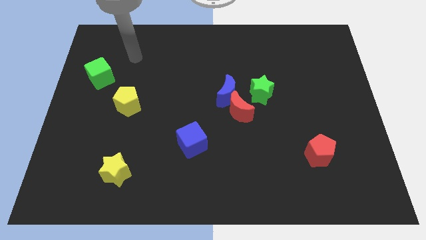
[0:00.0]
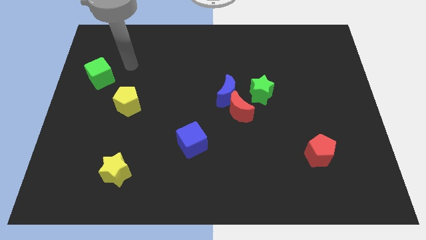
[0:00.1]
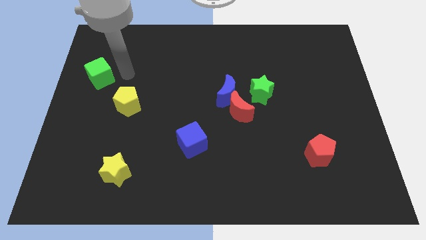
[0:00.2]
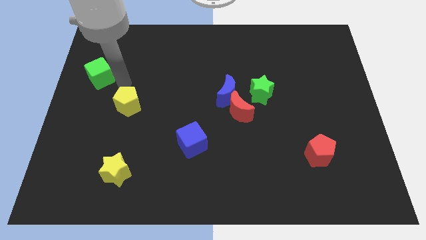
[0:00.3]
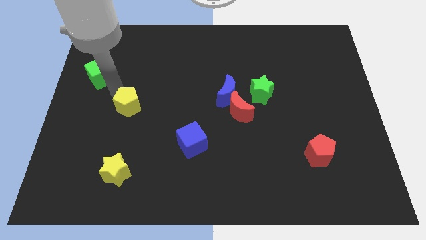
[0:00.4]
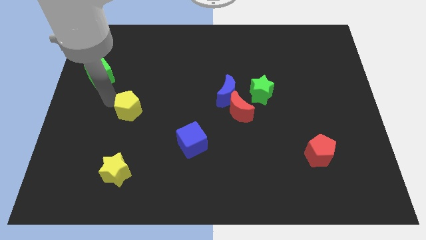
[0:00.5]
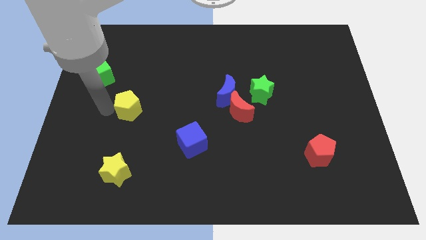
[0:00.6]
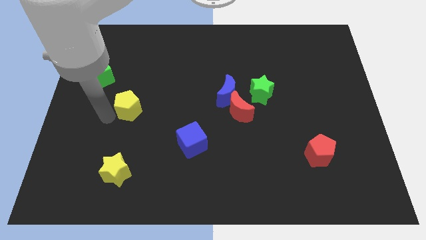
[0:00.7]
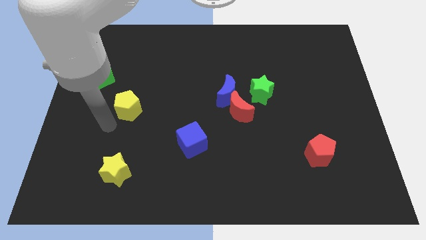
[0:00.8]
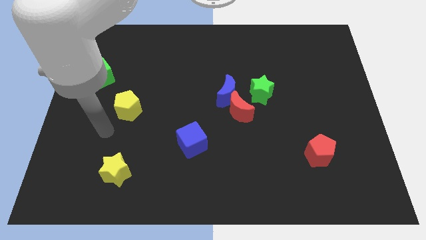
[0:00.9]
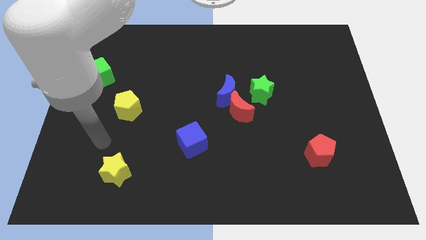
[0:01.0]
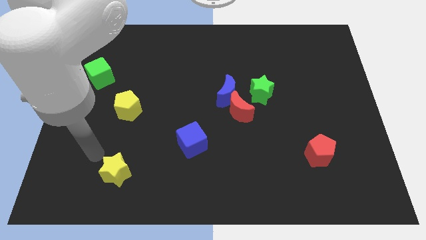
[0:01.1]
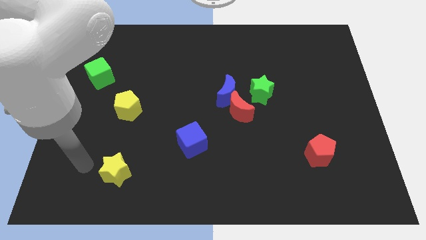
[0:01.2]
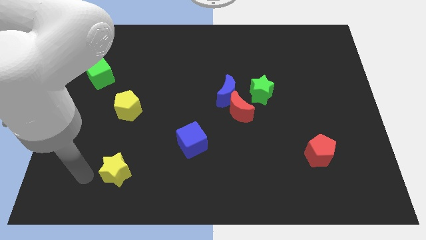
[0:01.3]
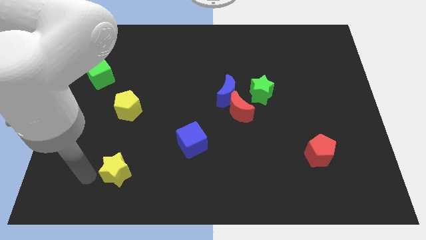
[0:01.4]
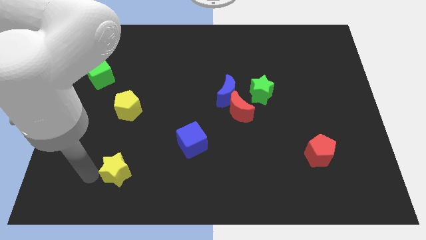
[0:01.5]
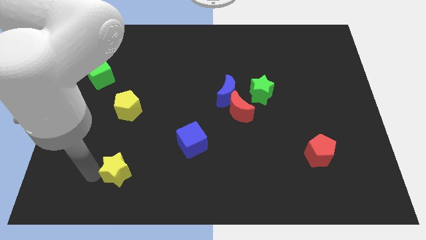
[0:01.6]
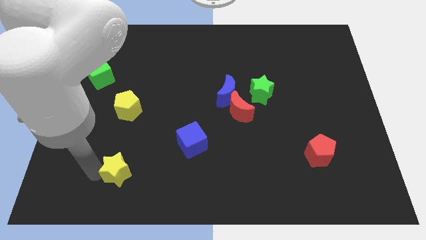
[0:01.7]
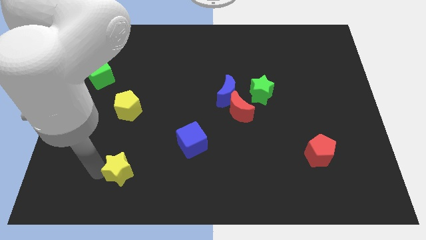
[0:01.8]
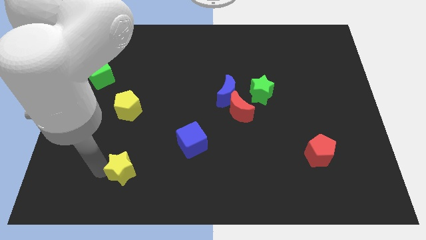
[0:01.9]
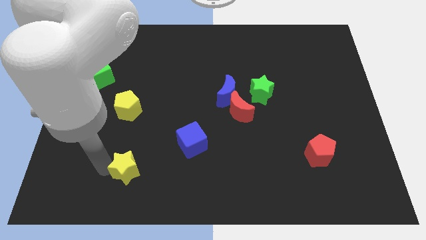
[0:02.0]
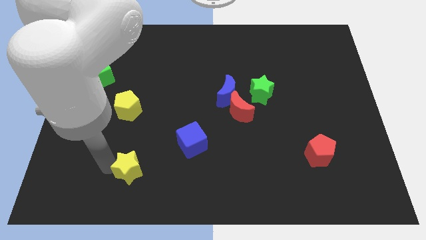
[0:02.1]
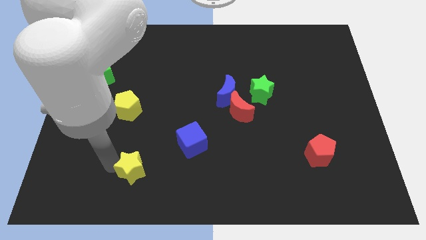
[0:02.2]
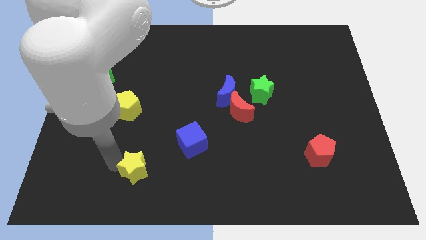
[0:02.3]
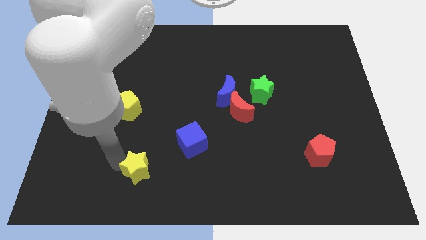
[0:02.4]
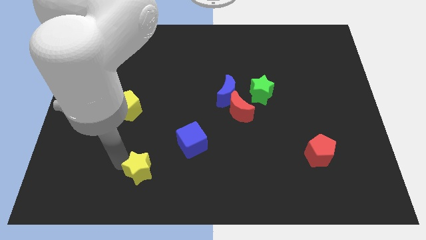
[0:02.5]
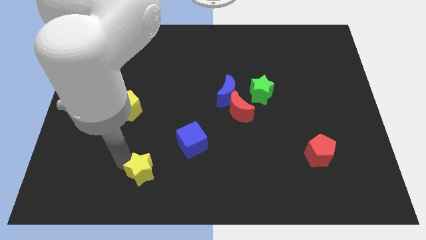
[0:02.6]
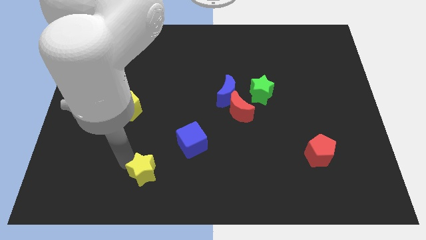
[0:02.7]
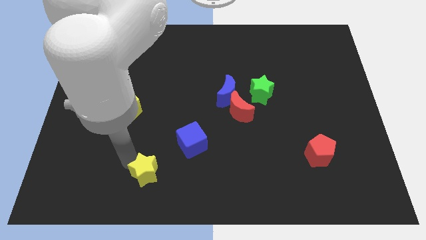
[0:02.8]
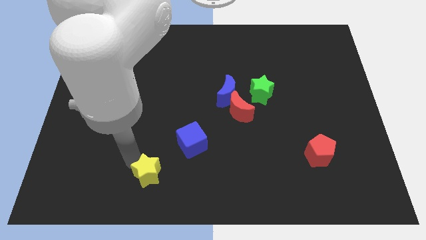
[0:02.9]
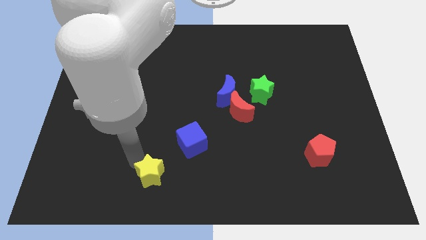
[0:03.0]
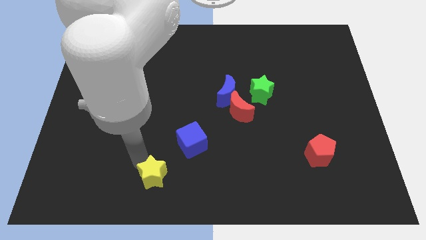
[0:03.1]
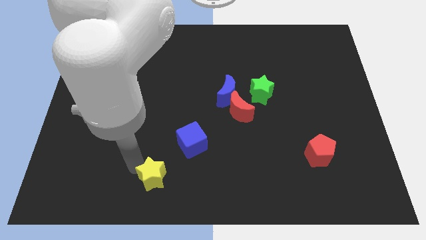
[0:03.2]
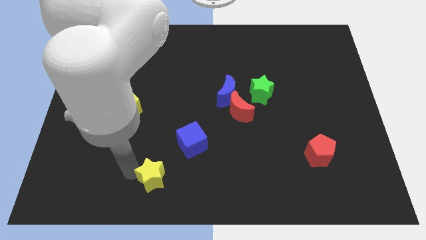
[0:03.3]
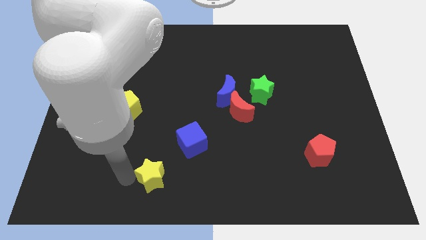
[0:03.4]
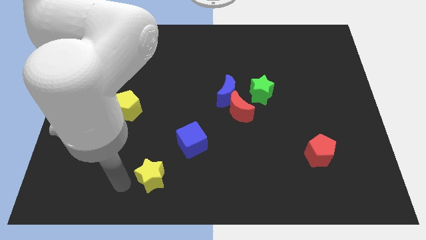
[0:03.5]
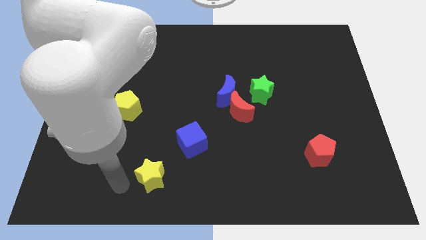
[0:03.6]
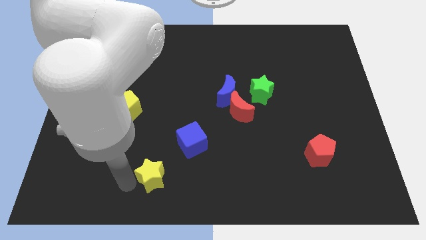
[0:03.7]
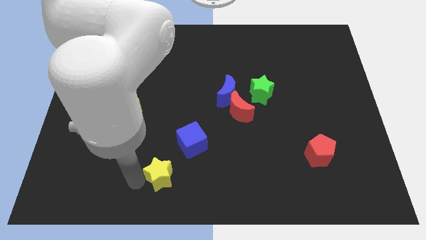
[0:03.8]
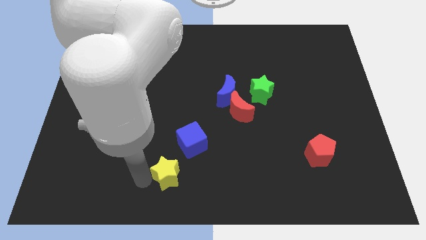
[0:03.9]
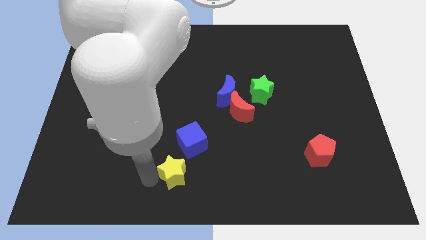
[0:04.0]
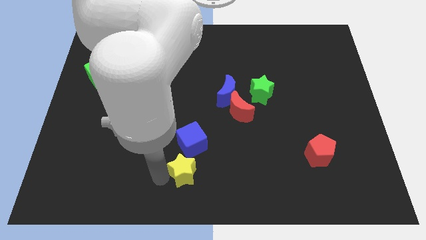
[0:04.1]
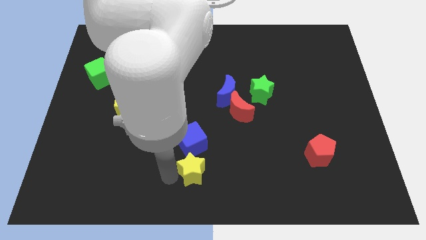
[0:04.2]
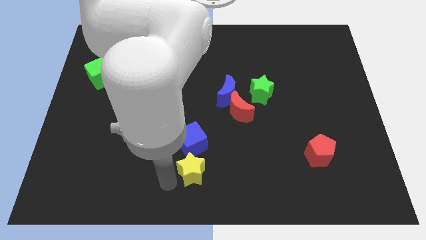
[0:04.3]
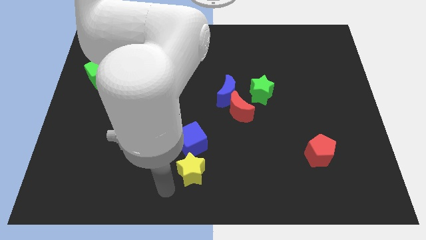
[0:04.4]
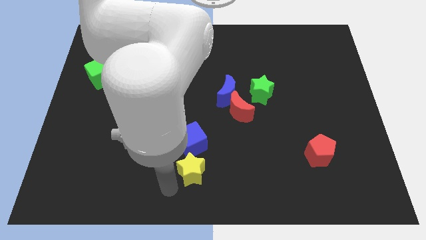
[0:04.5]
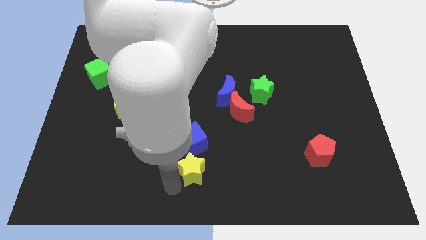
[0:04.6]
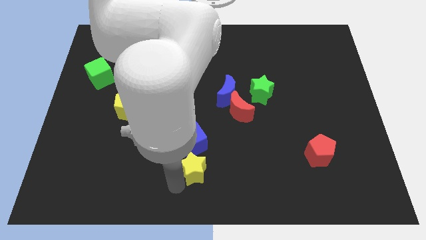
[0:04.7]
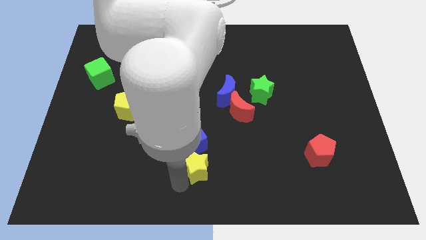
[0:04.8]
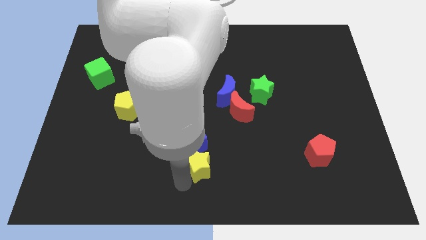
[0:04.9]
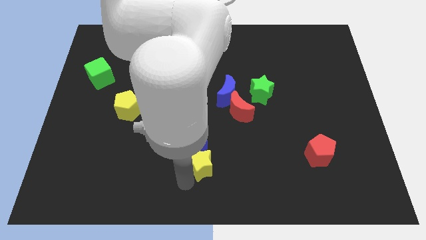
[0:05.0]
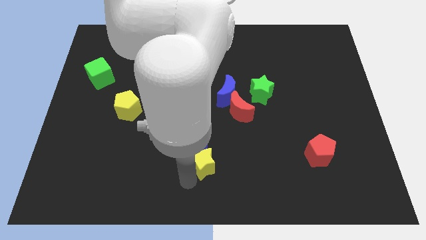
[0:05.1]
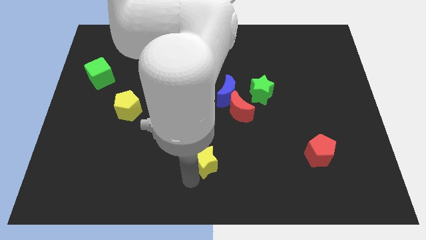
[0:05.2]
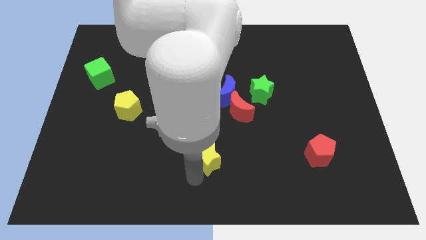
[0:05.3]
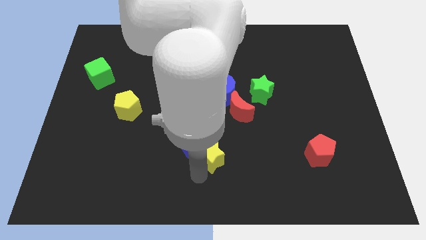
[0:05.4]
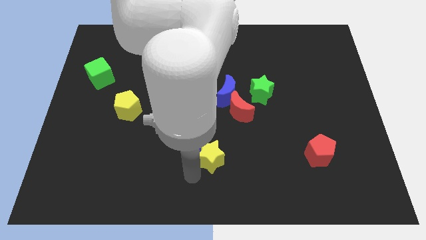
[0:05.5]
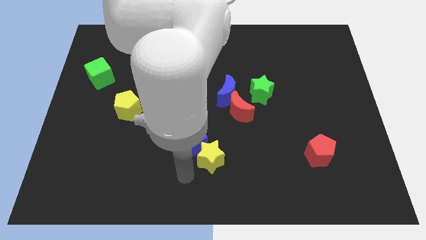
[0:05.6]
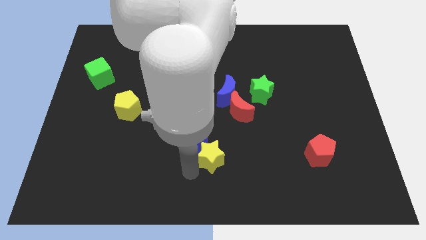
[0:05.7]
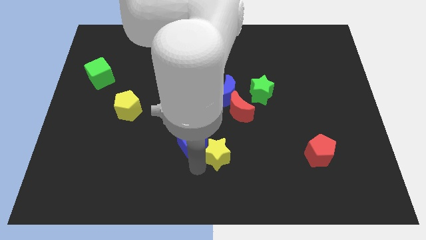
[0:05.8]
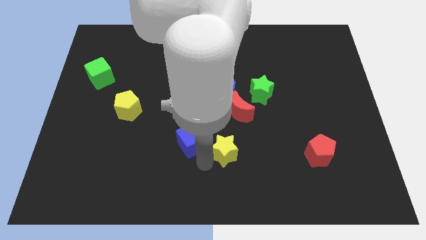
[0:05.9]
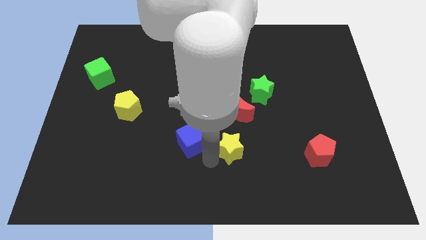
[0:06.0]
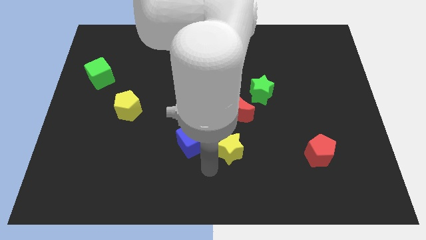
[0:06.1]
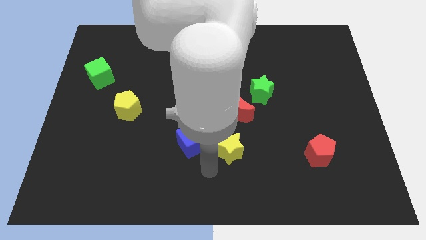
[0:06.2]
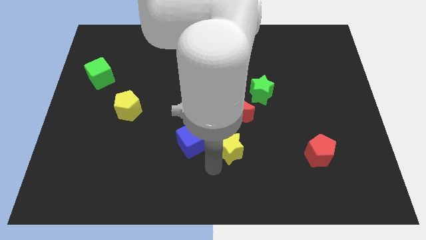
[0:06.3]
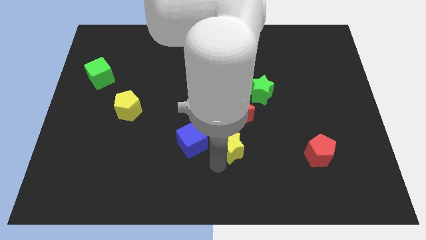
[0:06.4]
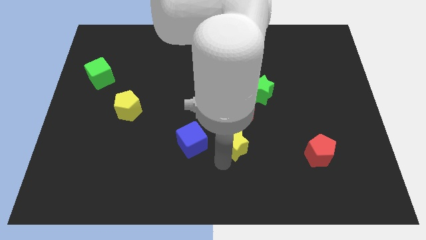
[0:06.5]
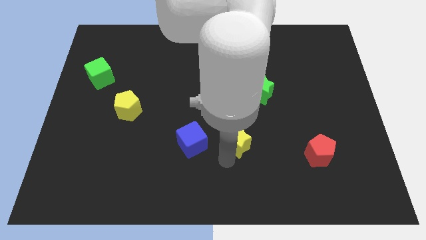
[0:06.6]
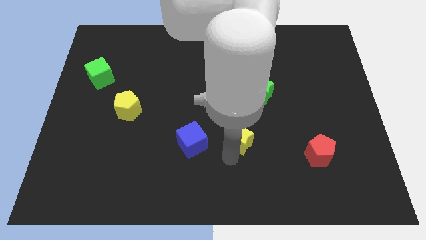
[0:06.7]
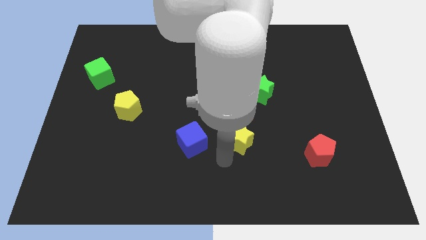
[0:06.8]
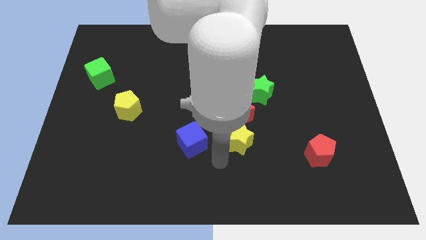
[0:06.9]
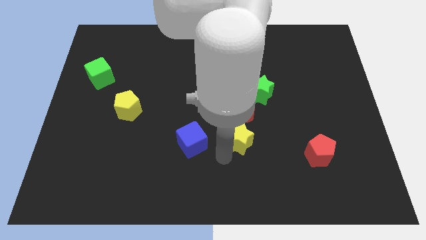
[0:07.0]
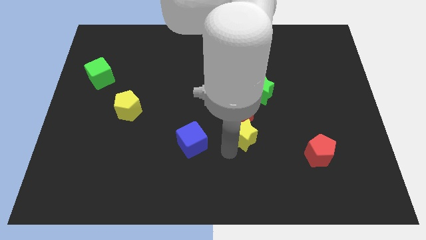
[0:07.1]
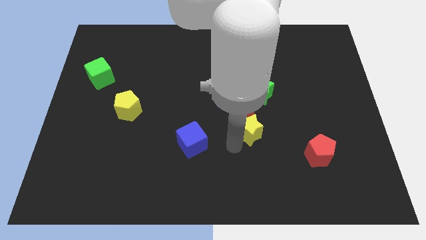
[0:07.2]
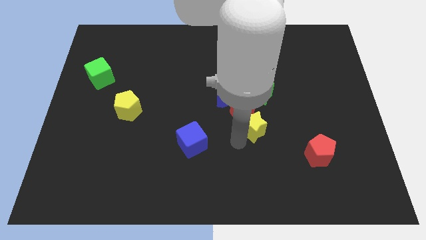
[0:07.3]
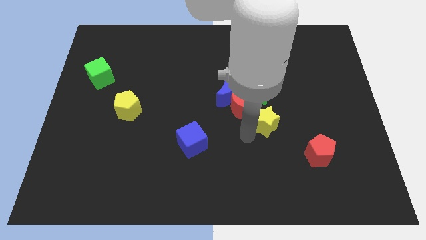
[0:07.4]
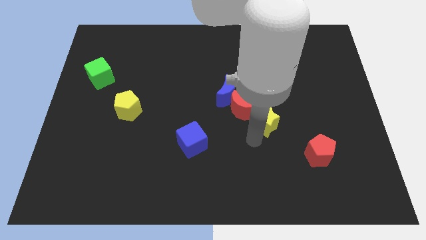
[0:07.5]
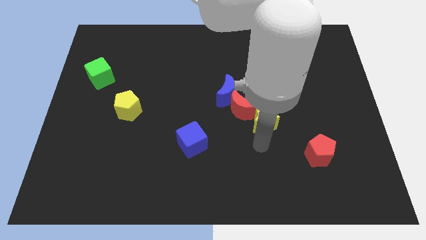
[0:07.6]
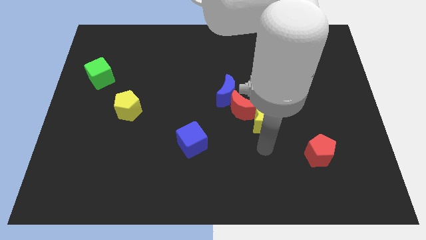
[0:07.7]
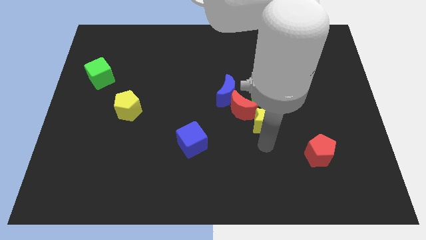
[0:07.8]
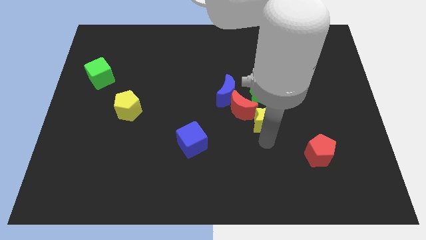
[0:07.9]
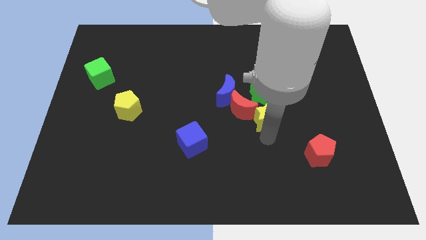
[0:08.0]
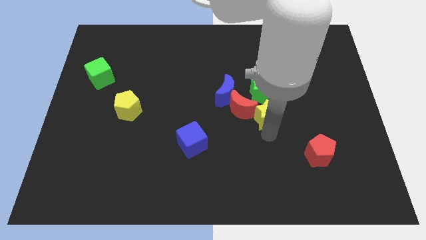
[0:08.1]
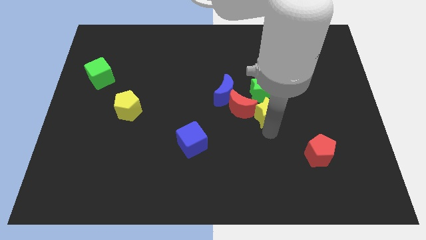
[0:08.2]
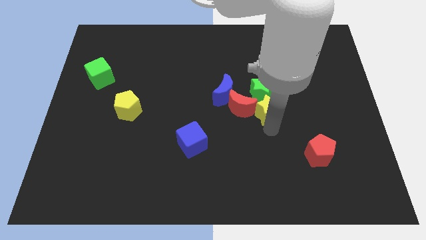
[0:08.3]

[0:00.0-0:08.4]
move the yellow star next to the green star
